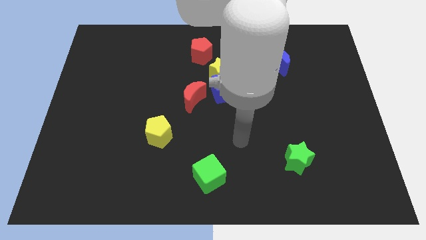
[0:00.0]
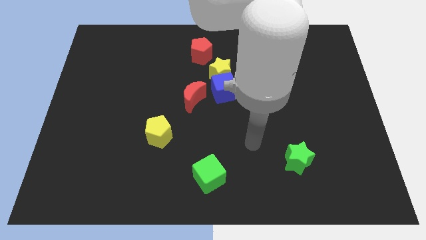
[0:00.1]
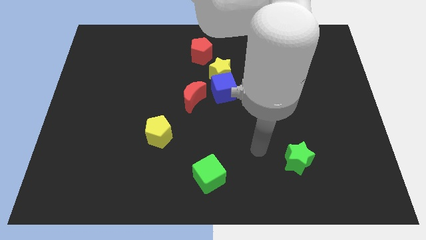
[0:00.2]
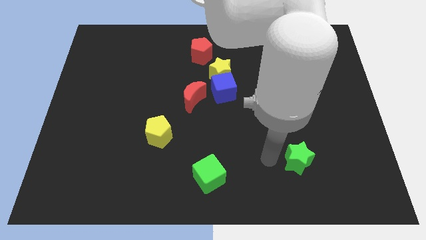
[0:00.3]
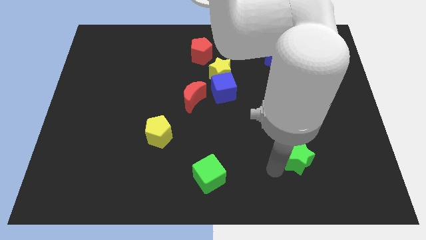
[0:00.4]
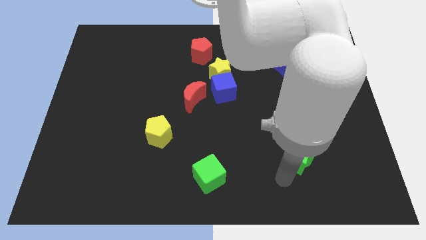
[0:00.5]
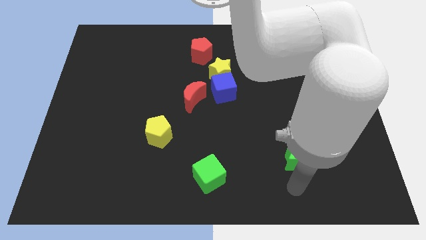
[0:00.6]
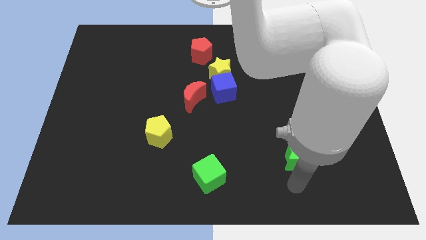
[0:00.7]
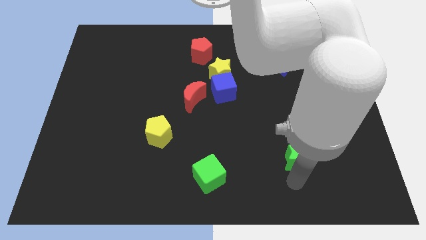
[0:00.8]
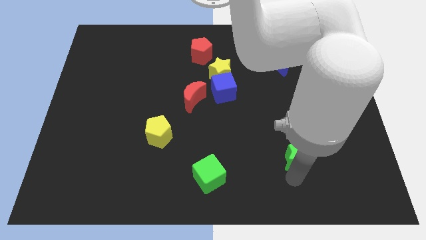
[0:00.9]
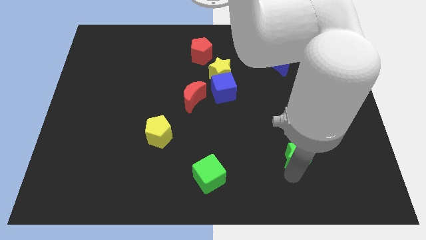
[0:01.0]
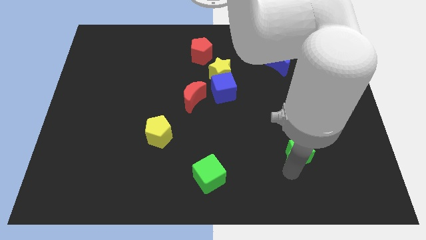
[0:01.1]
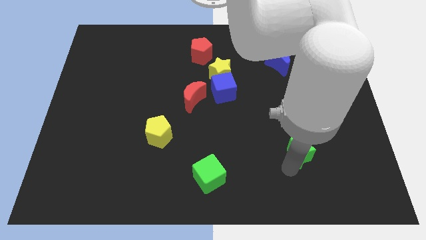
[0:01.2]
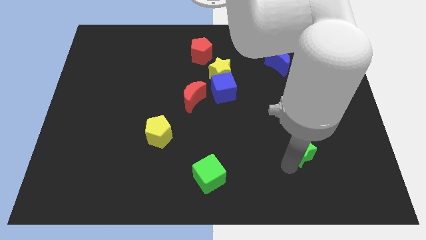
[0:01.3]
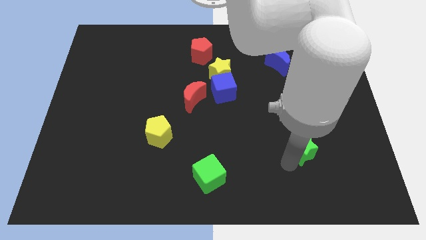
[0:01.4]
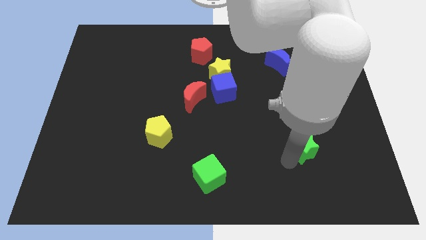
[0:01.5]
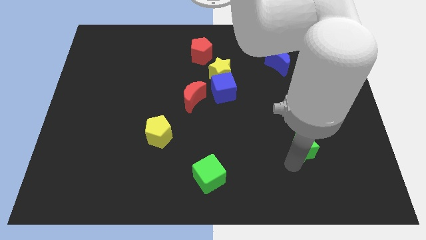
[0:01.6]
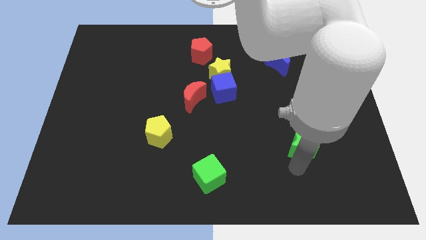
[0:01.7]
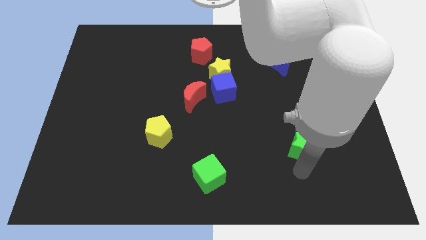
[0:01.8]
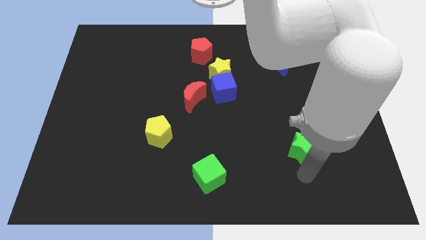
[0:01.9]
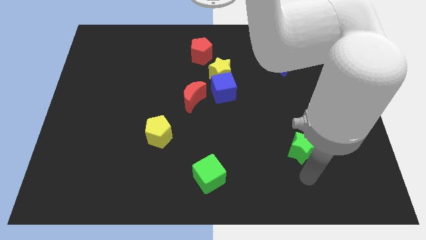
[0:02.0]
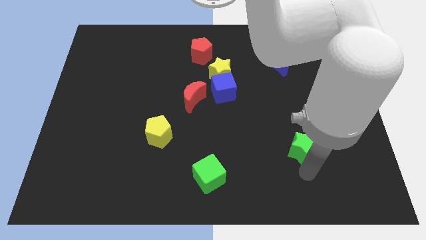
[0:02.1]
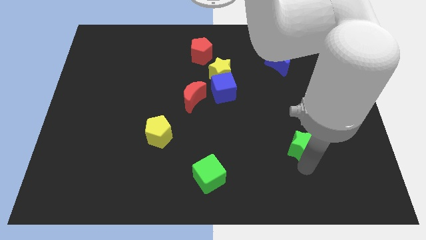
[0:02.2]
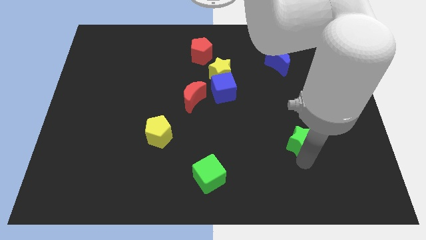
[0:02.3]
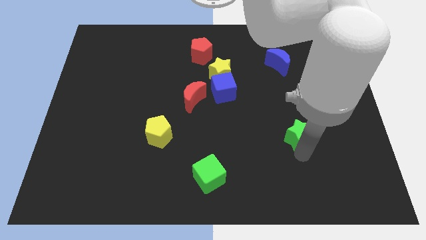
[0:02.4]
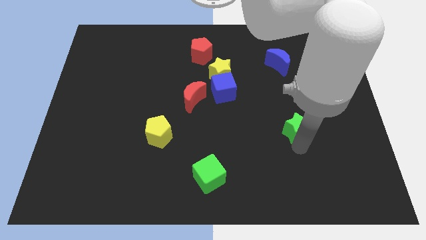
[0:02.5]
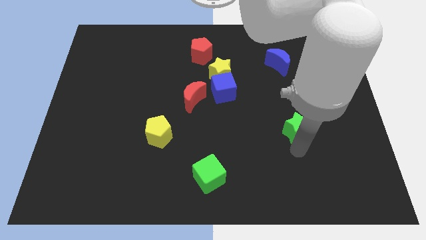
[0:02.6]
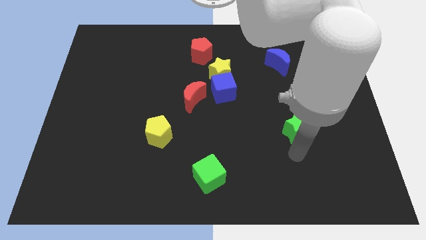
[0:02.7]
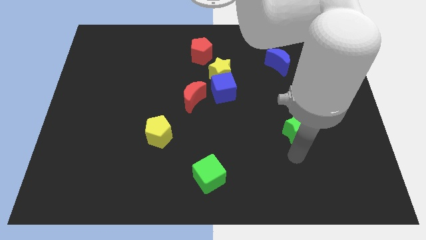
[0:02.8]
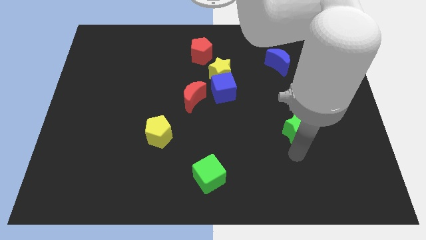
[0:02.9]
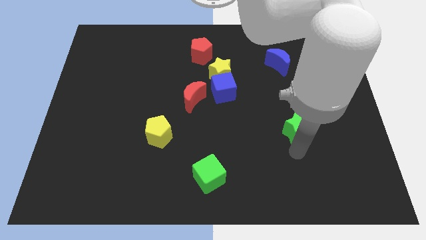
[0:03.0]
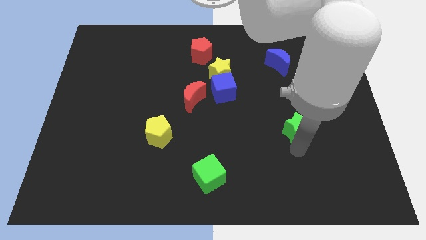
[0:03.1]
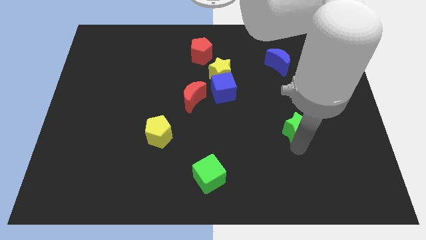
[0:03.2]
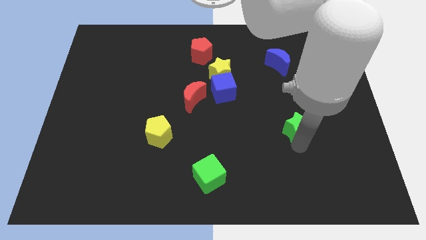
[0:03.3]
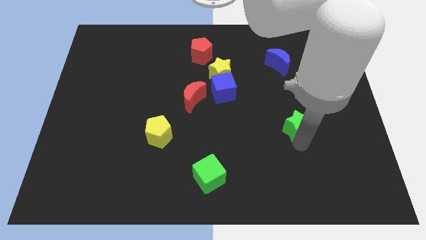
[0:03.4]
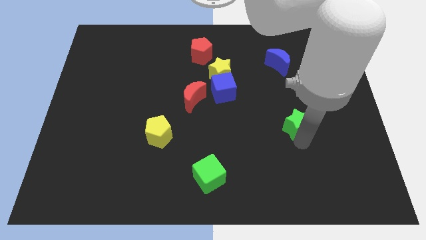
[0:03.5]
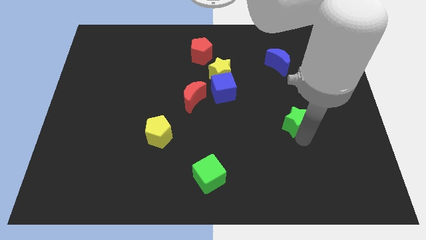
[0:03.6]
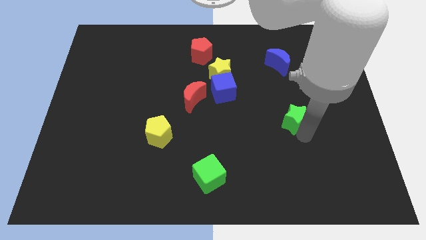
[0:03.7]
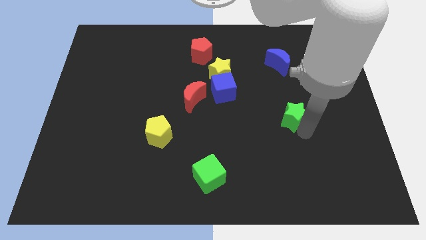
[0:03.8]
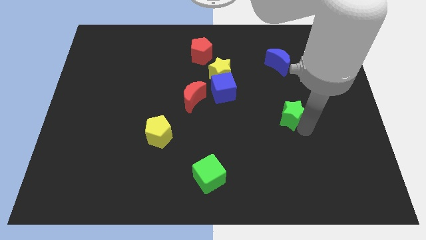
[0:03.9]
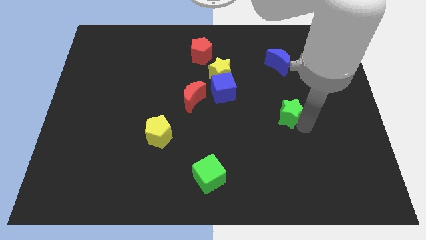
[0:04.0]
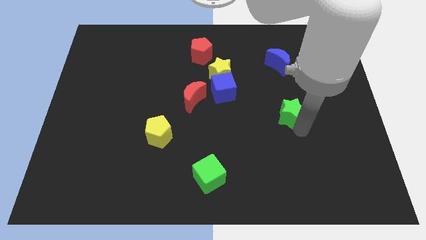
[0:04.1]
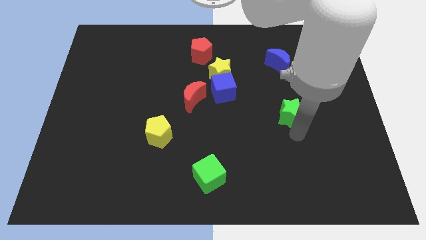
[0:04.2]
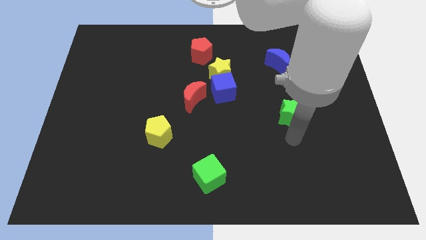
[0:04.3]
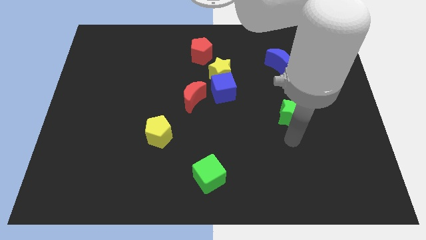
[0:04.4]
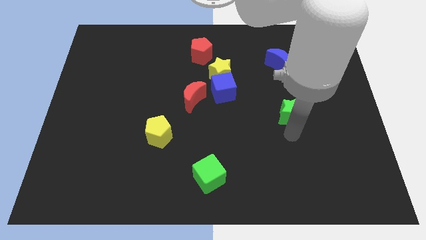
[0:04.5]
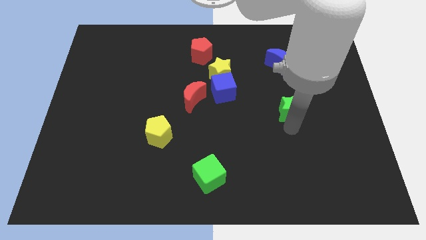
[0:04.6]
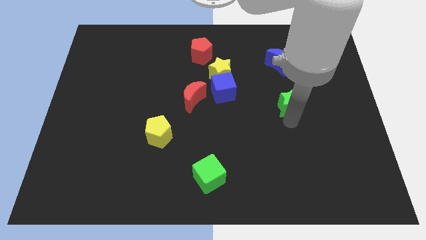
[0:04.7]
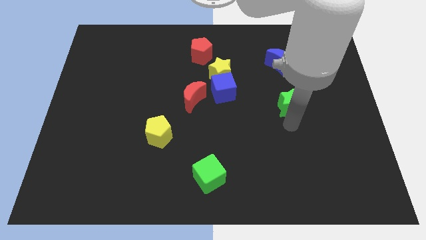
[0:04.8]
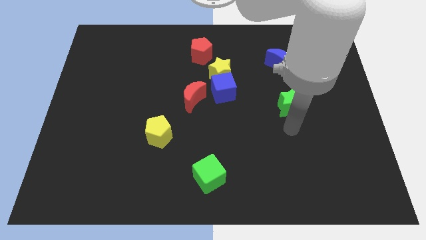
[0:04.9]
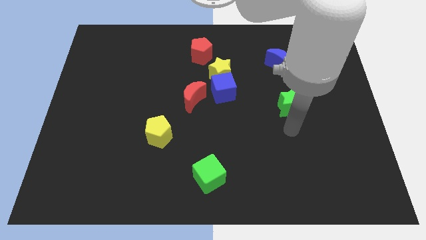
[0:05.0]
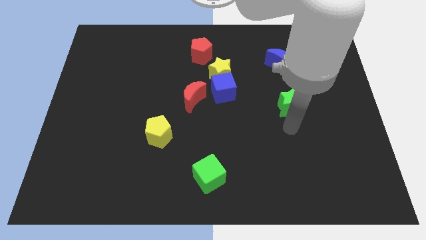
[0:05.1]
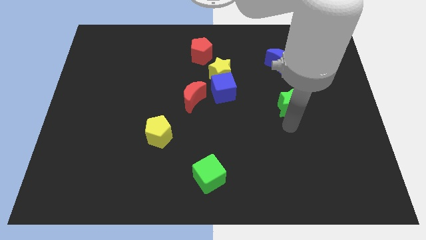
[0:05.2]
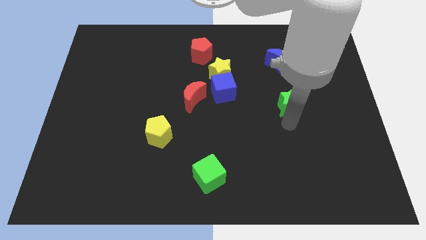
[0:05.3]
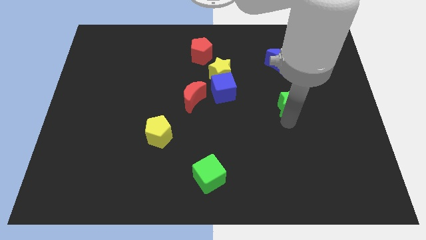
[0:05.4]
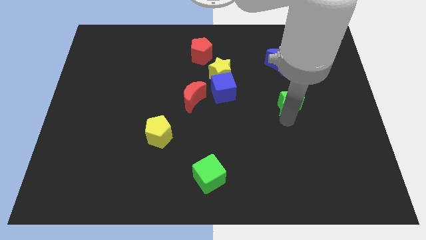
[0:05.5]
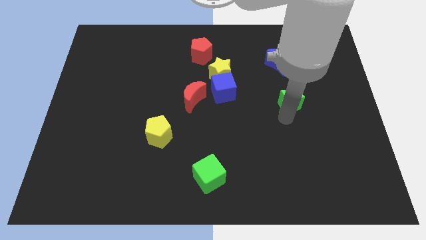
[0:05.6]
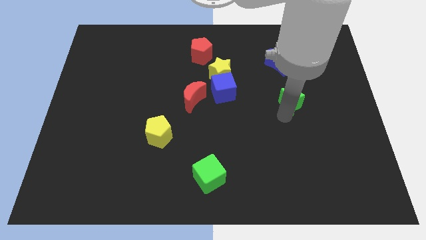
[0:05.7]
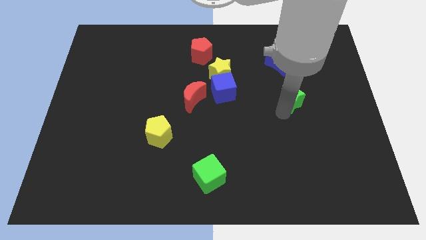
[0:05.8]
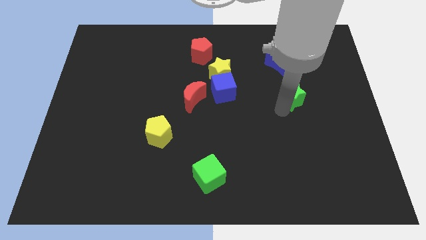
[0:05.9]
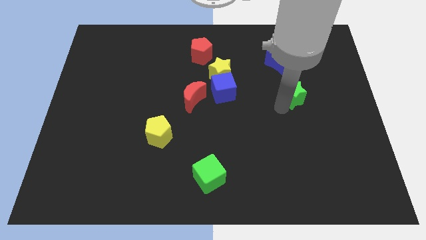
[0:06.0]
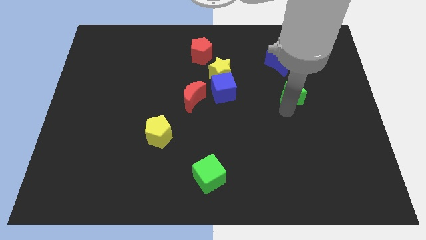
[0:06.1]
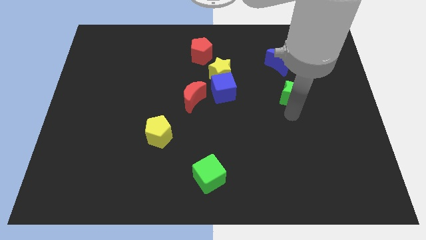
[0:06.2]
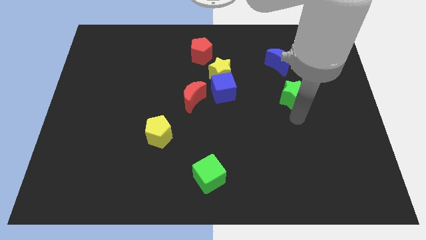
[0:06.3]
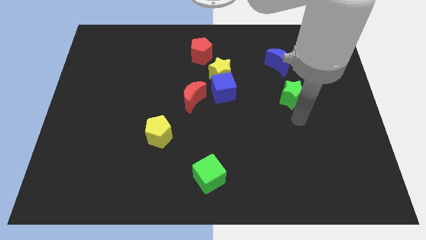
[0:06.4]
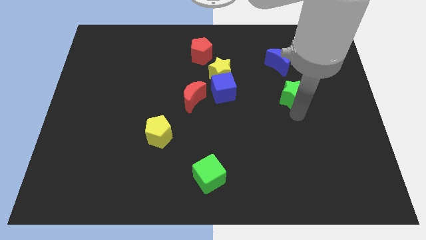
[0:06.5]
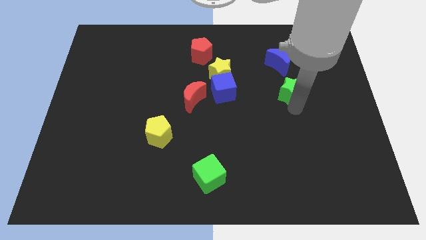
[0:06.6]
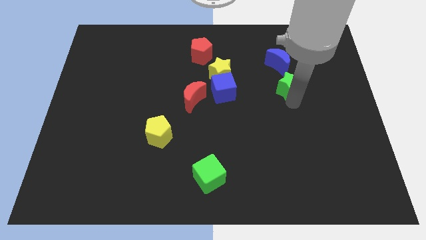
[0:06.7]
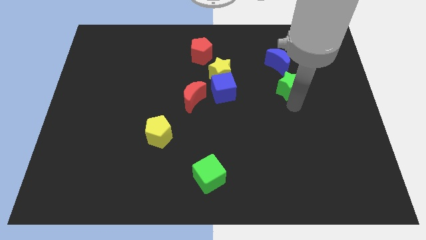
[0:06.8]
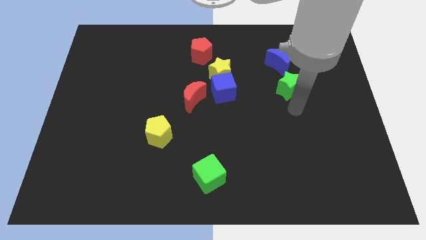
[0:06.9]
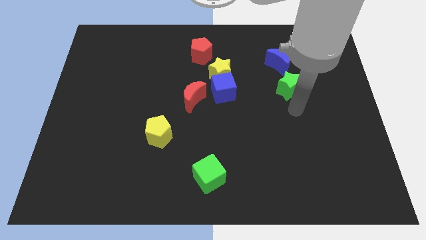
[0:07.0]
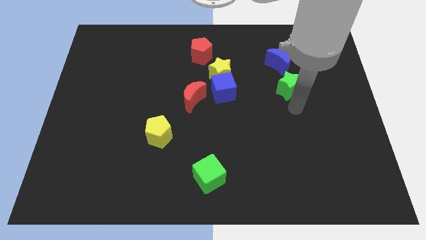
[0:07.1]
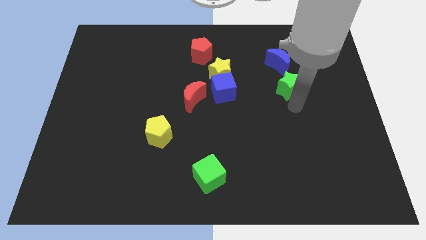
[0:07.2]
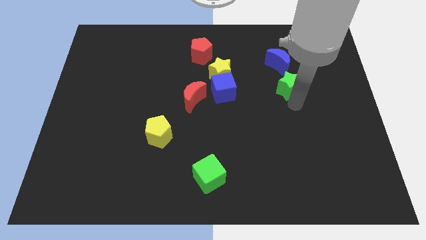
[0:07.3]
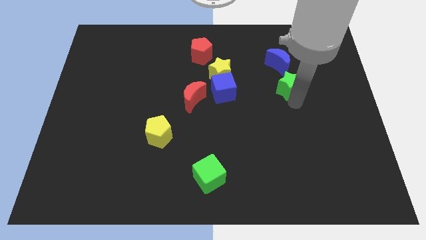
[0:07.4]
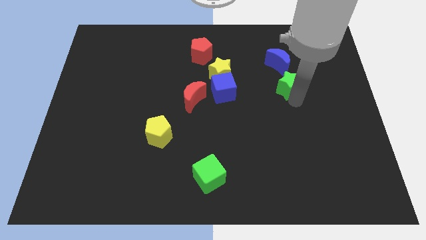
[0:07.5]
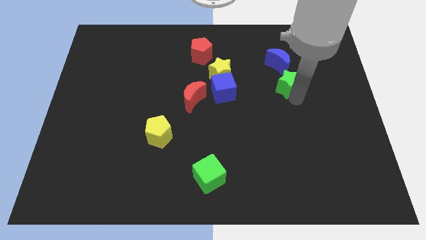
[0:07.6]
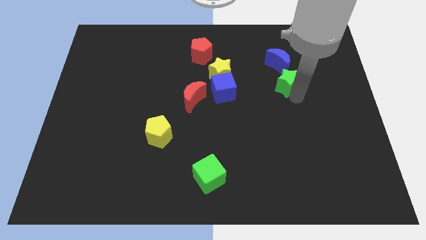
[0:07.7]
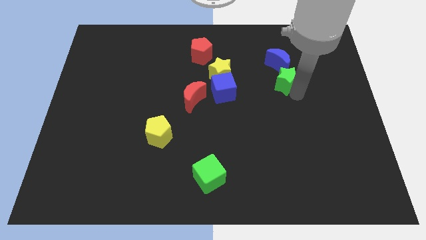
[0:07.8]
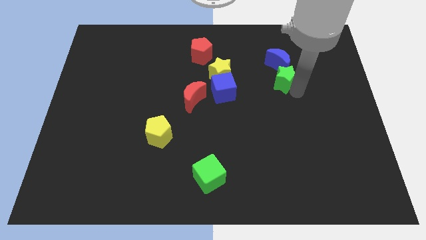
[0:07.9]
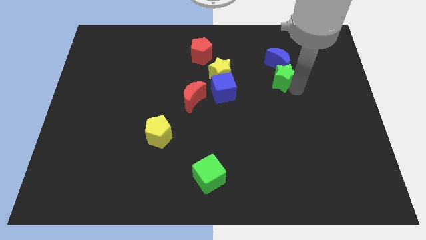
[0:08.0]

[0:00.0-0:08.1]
move the green star next to the blue moon
